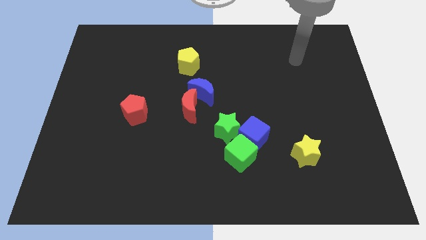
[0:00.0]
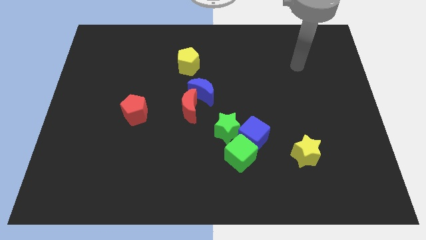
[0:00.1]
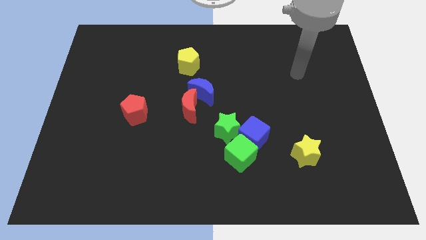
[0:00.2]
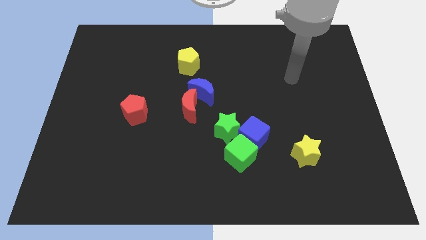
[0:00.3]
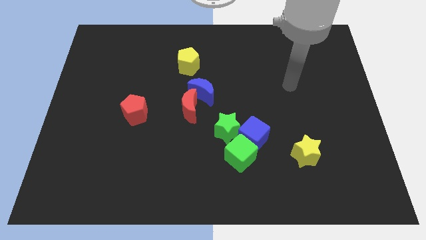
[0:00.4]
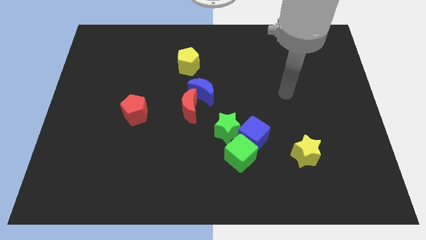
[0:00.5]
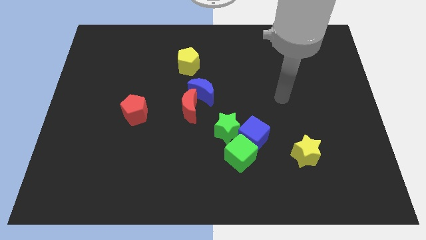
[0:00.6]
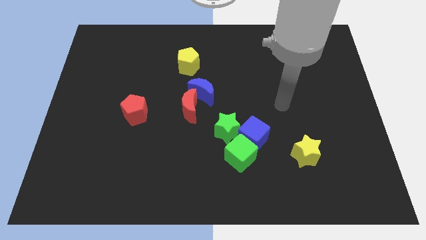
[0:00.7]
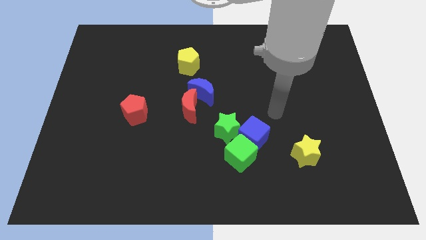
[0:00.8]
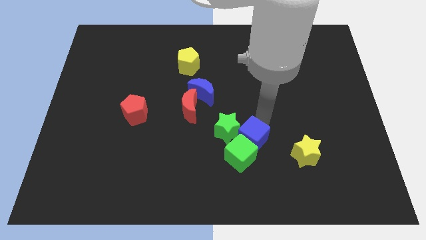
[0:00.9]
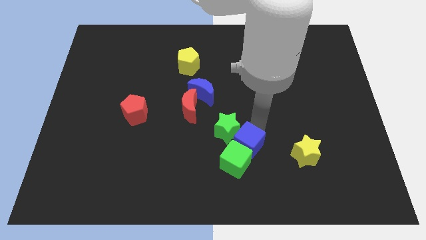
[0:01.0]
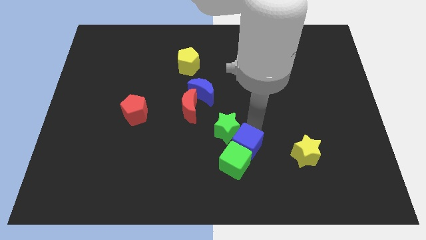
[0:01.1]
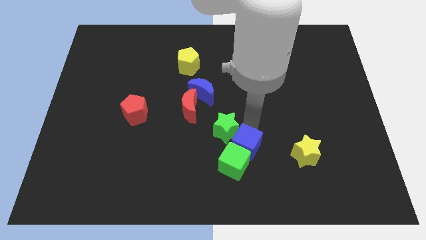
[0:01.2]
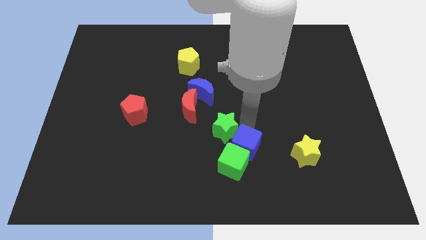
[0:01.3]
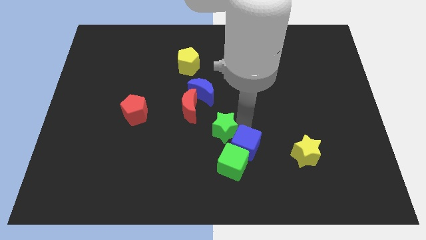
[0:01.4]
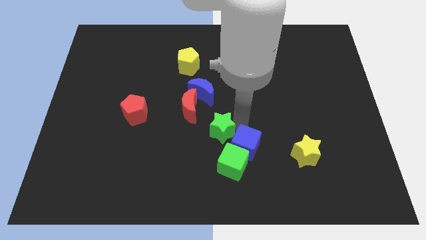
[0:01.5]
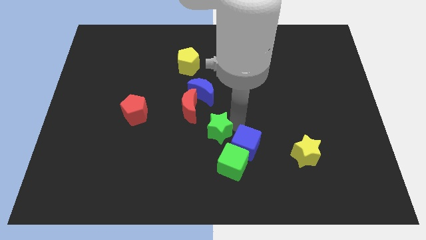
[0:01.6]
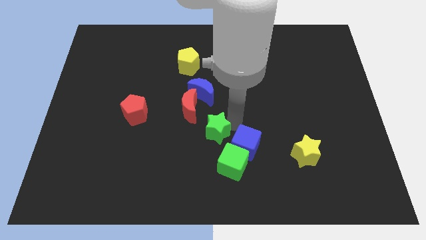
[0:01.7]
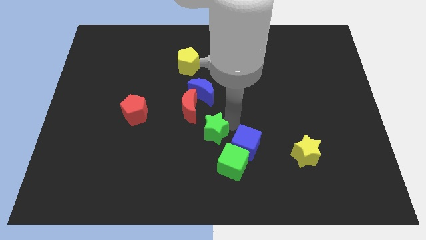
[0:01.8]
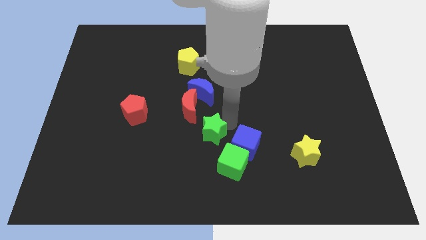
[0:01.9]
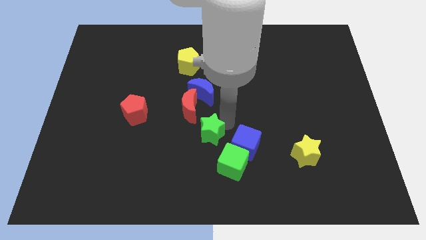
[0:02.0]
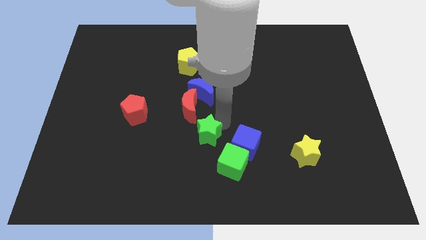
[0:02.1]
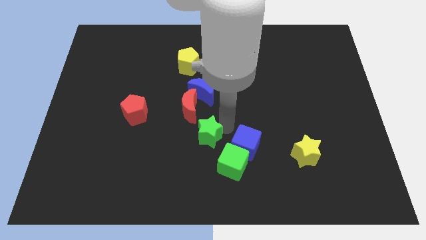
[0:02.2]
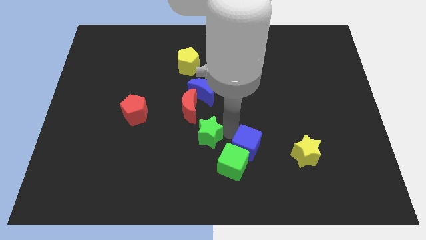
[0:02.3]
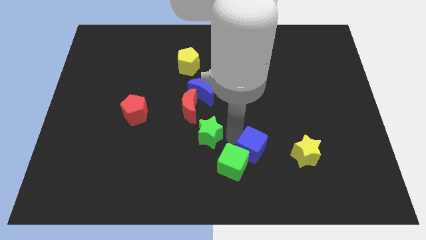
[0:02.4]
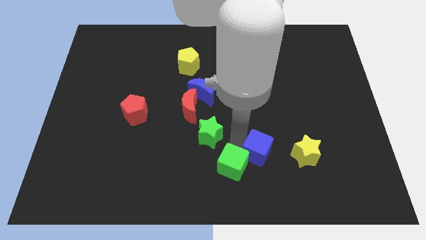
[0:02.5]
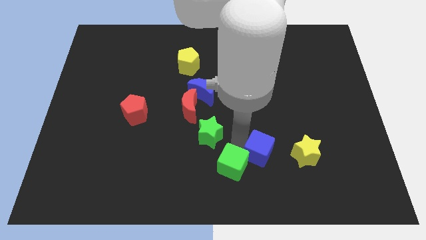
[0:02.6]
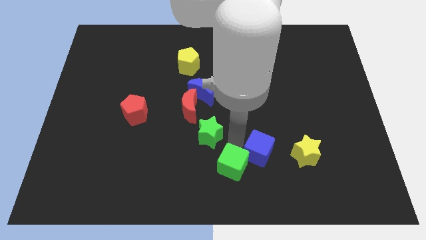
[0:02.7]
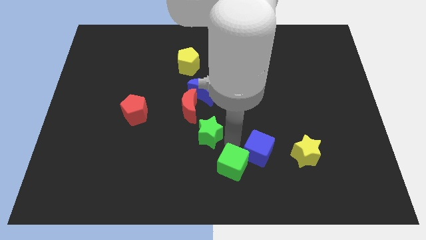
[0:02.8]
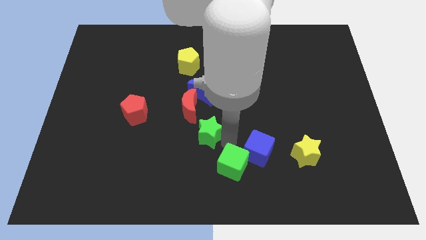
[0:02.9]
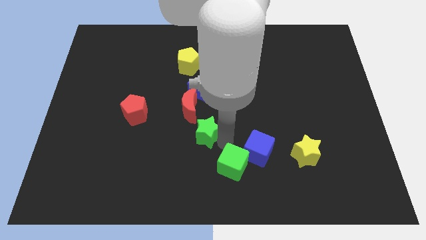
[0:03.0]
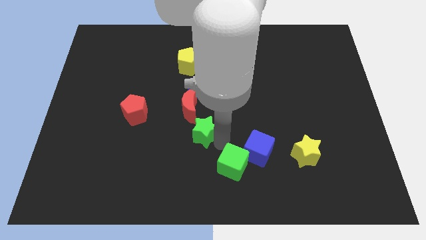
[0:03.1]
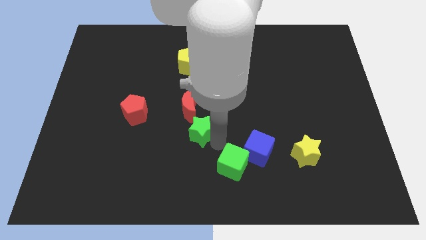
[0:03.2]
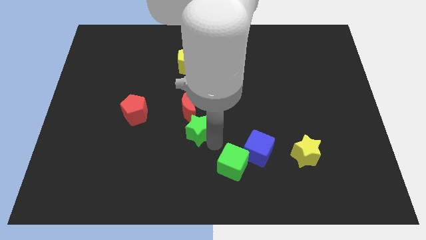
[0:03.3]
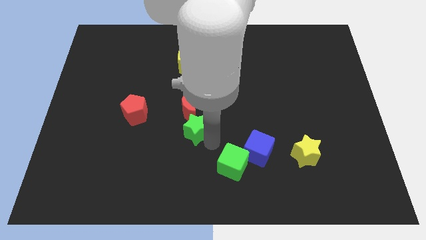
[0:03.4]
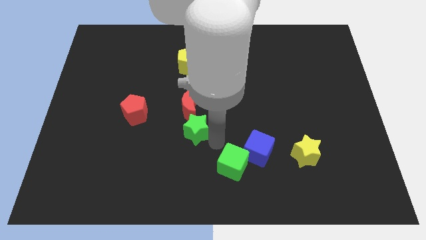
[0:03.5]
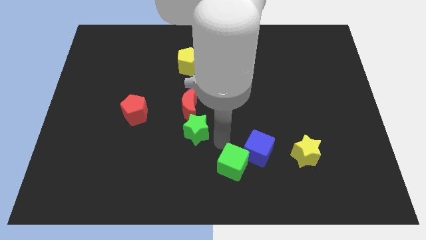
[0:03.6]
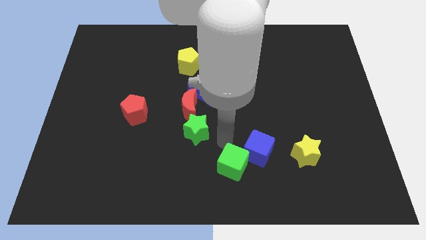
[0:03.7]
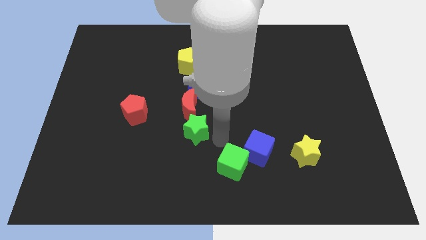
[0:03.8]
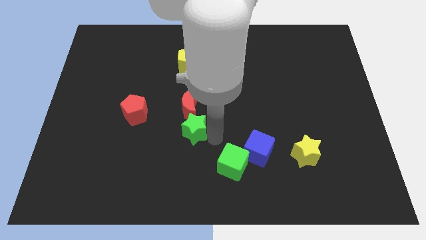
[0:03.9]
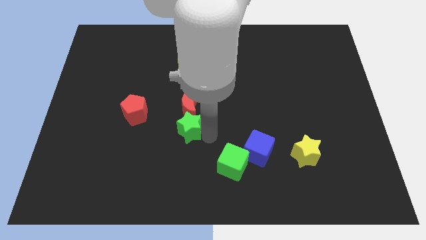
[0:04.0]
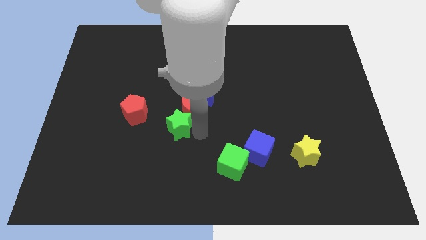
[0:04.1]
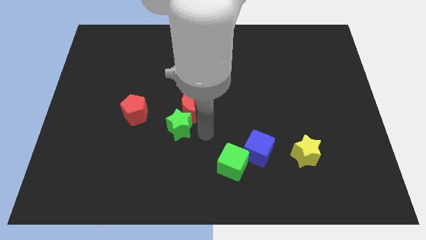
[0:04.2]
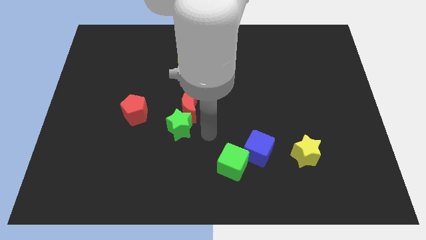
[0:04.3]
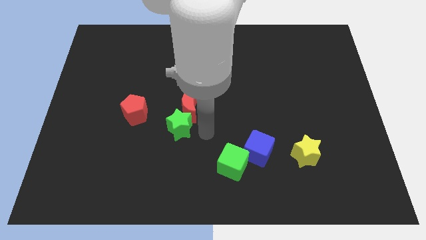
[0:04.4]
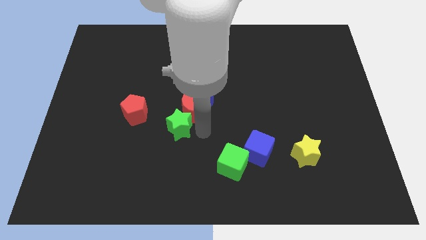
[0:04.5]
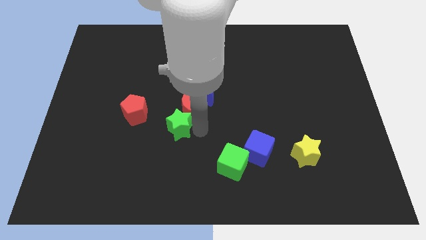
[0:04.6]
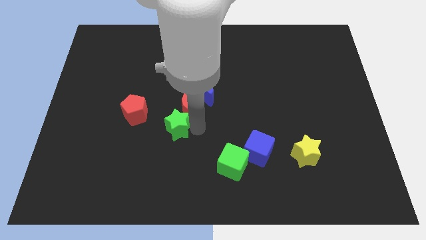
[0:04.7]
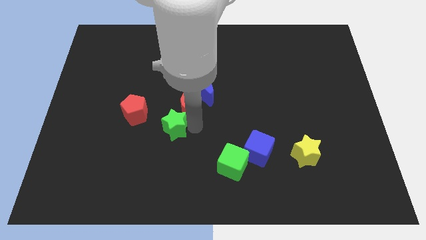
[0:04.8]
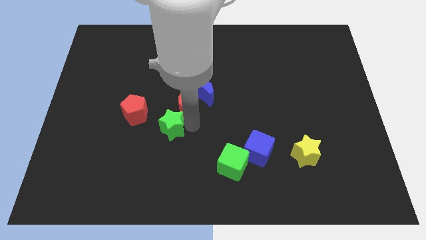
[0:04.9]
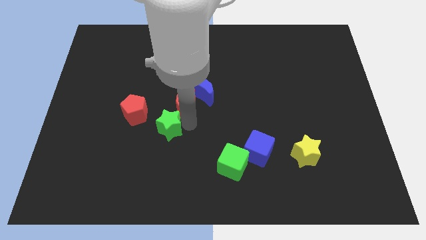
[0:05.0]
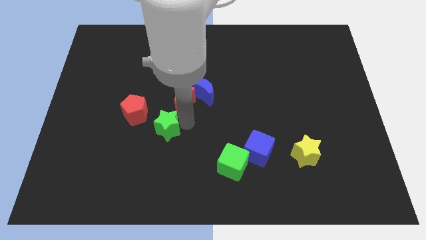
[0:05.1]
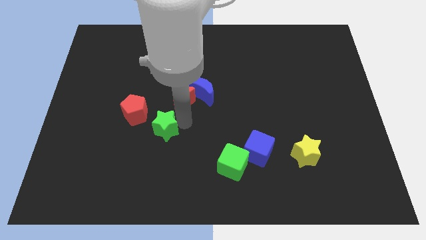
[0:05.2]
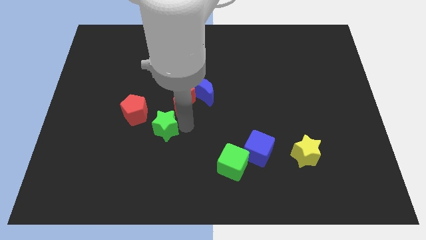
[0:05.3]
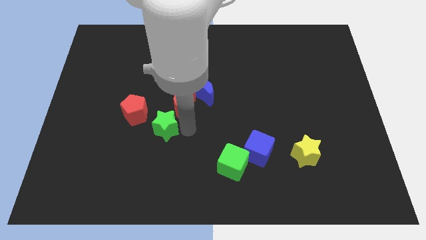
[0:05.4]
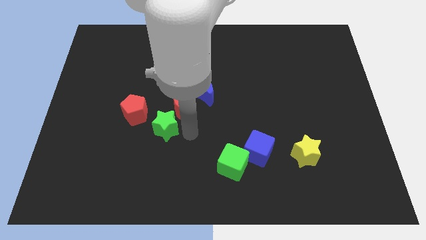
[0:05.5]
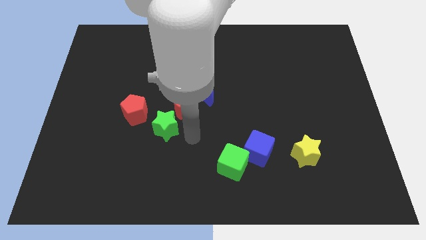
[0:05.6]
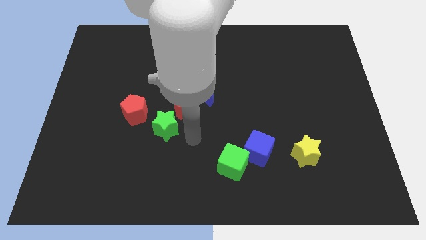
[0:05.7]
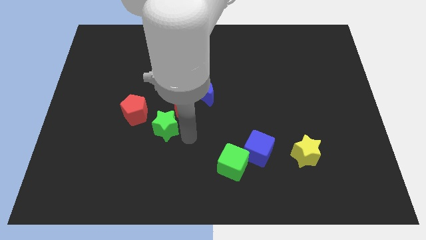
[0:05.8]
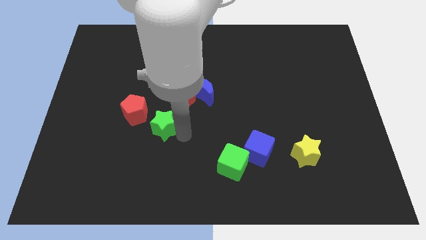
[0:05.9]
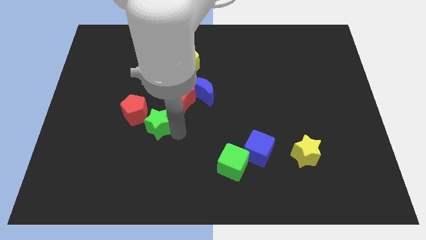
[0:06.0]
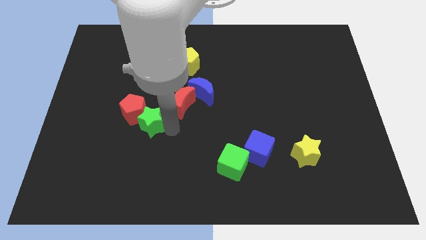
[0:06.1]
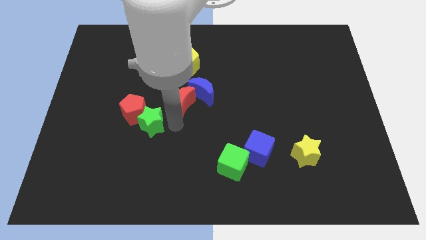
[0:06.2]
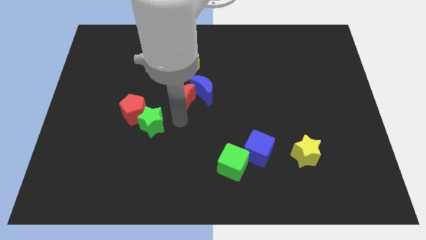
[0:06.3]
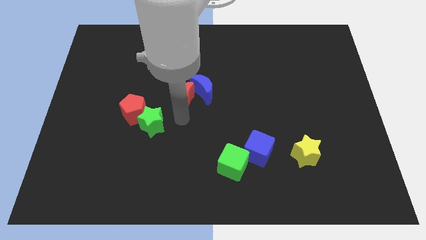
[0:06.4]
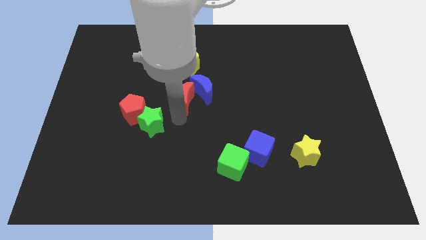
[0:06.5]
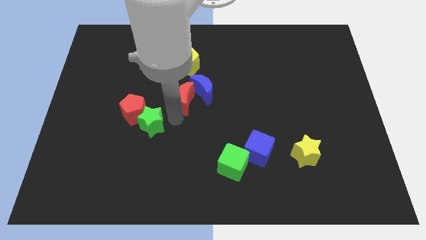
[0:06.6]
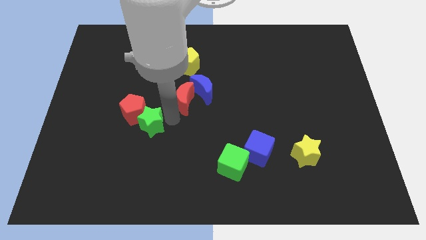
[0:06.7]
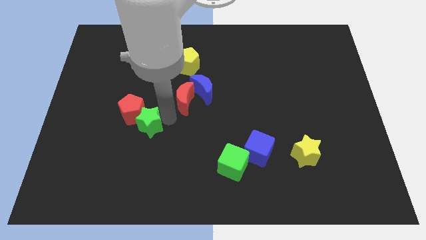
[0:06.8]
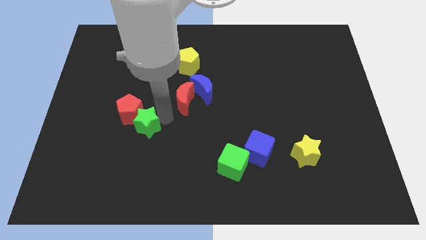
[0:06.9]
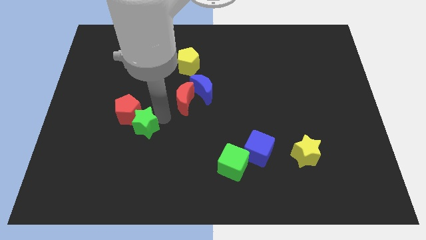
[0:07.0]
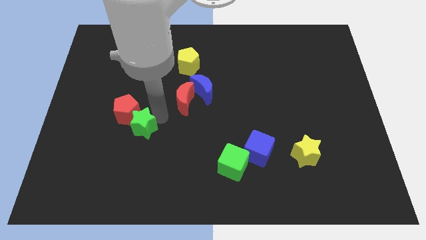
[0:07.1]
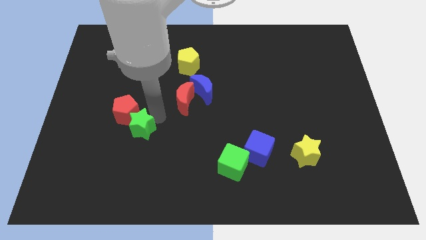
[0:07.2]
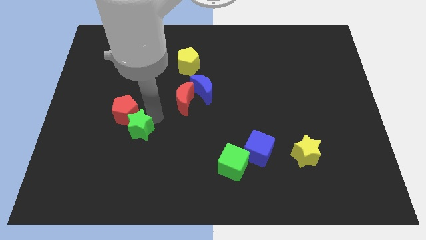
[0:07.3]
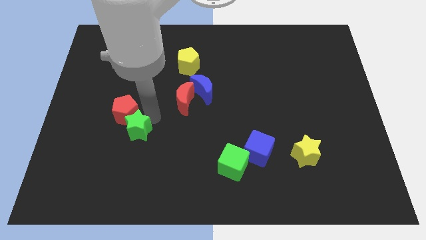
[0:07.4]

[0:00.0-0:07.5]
move the green star to the left

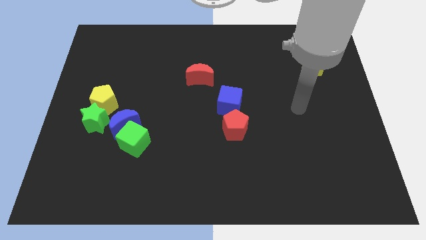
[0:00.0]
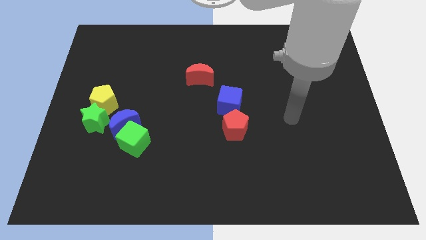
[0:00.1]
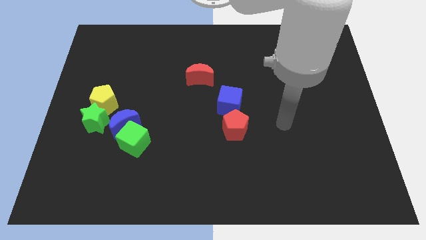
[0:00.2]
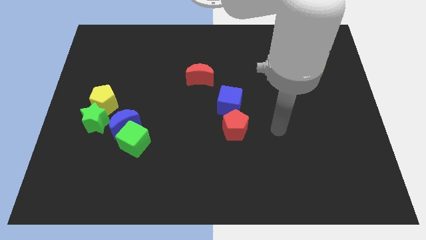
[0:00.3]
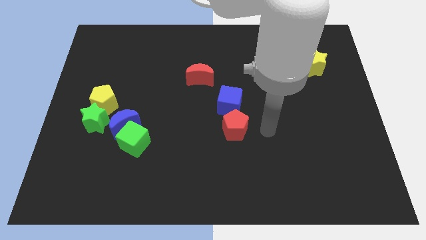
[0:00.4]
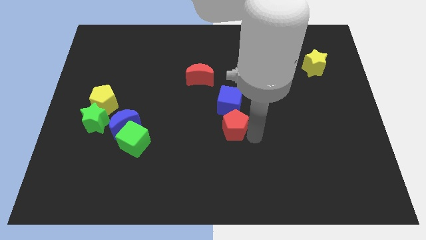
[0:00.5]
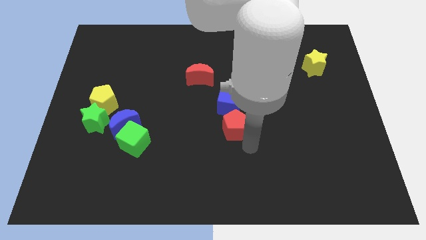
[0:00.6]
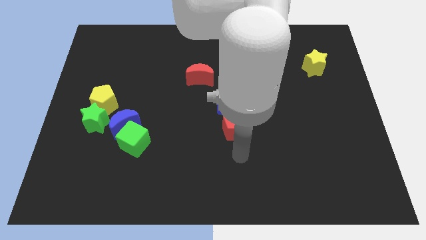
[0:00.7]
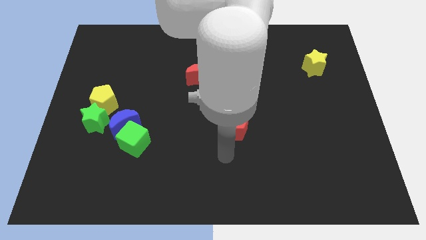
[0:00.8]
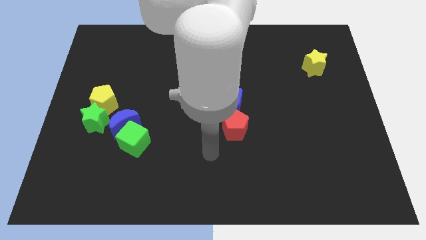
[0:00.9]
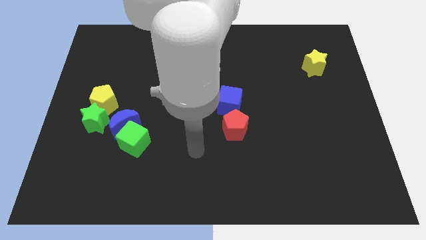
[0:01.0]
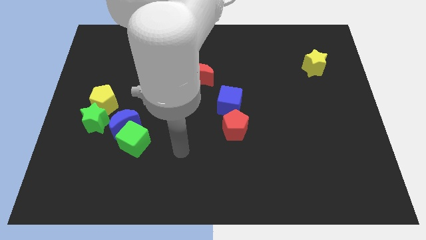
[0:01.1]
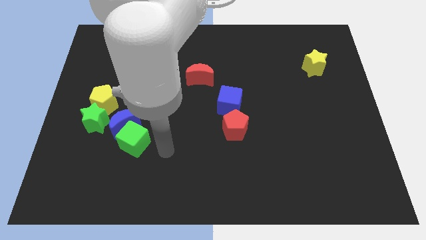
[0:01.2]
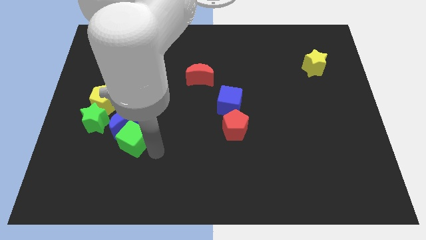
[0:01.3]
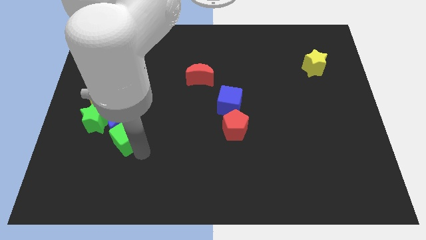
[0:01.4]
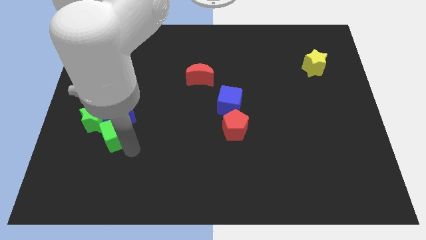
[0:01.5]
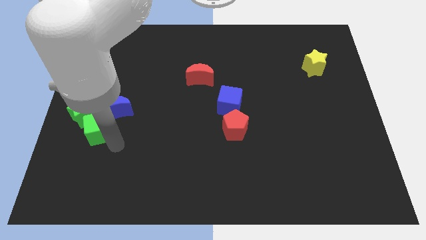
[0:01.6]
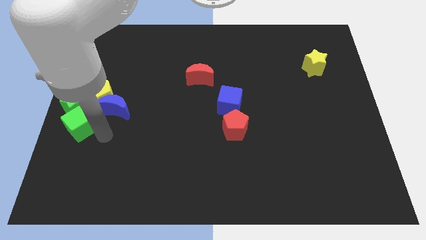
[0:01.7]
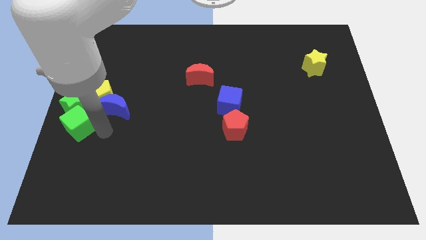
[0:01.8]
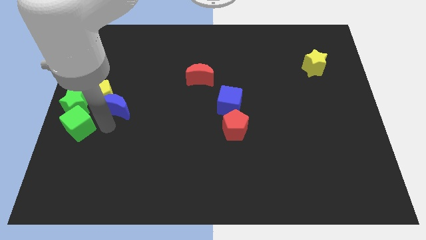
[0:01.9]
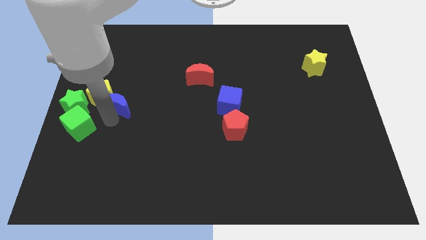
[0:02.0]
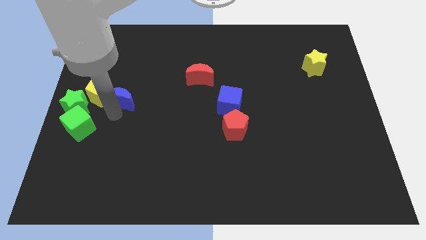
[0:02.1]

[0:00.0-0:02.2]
push the blue moon up somewhat
